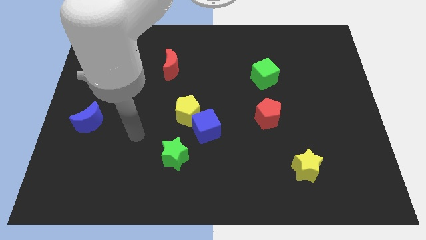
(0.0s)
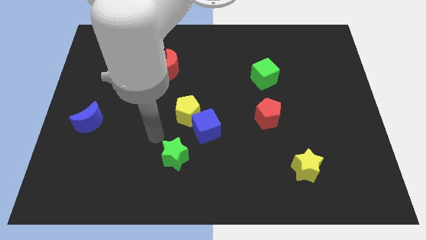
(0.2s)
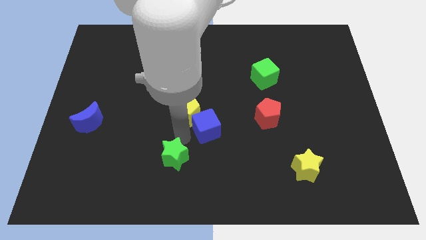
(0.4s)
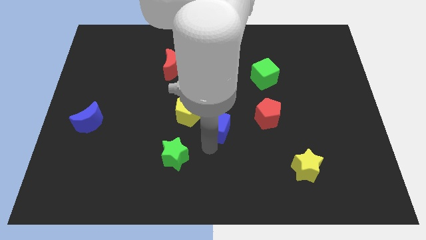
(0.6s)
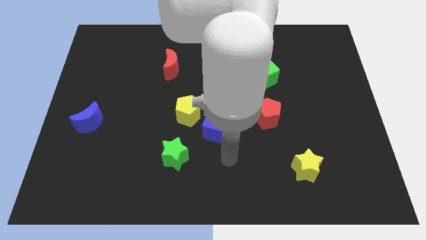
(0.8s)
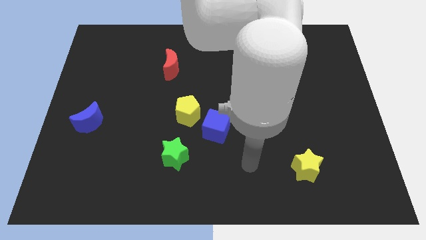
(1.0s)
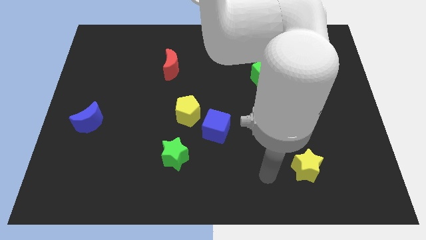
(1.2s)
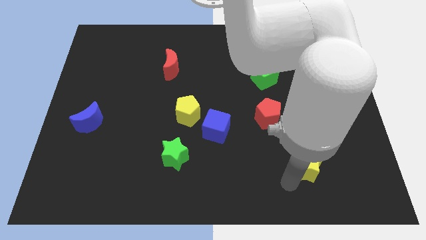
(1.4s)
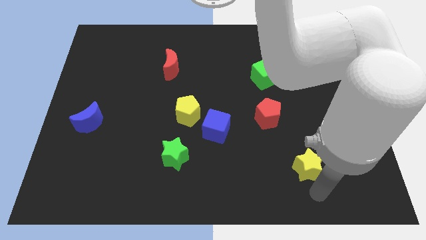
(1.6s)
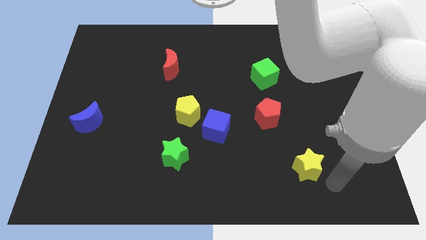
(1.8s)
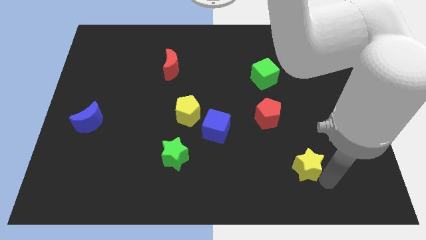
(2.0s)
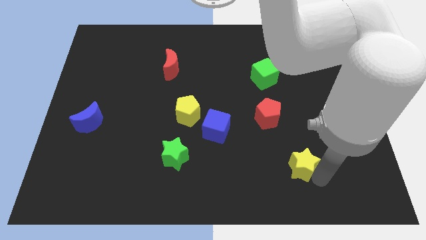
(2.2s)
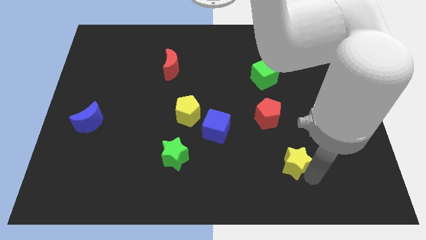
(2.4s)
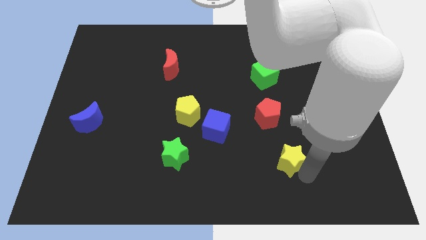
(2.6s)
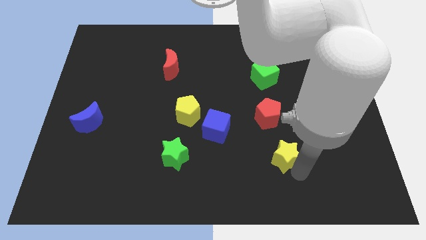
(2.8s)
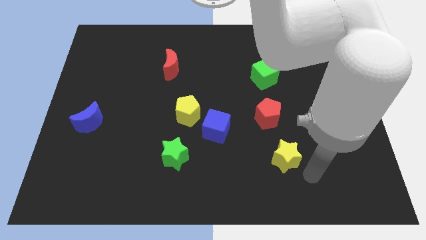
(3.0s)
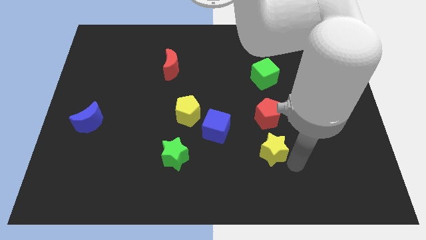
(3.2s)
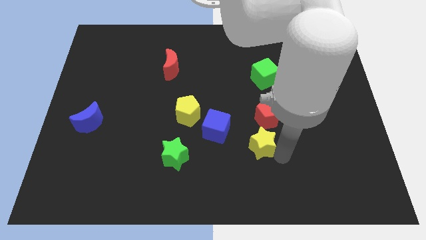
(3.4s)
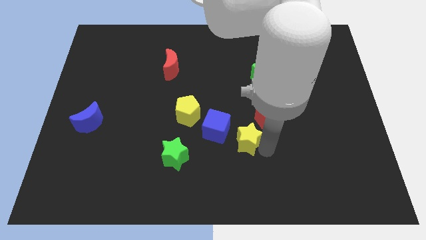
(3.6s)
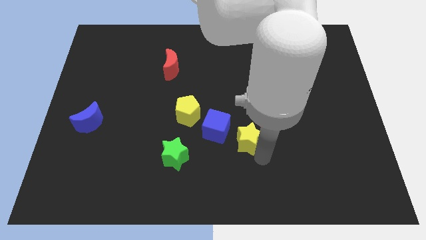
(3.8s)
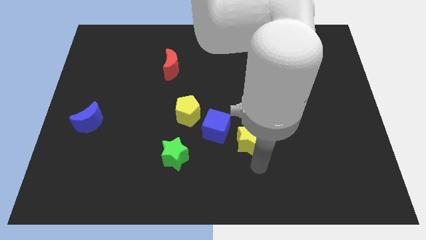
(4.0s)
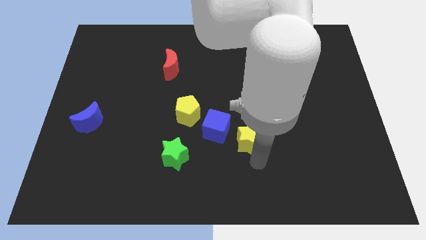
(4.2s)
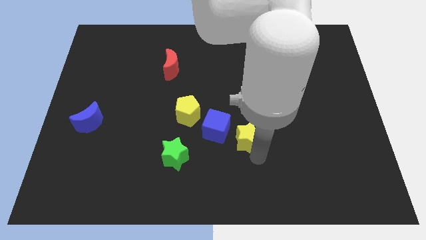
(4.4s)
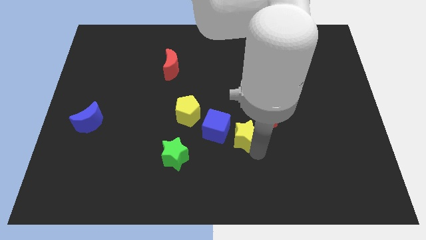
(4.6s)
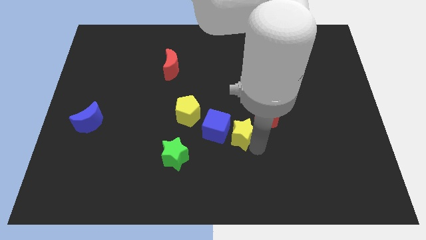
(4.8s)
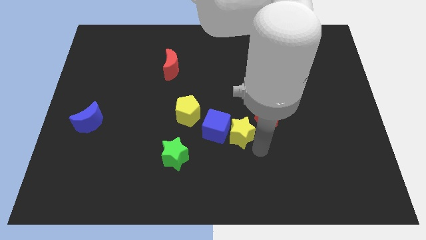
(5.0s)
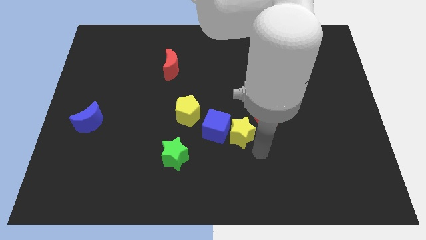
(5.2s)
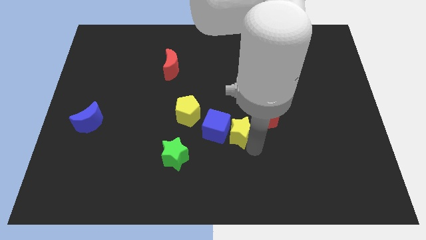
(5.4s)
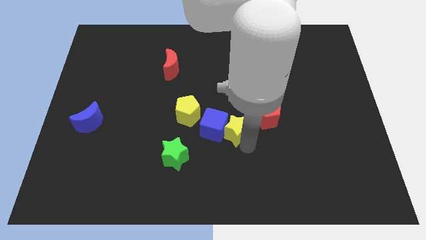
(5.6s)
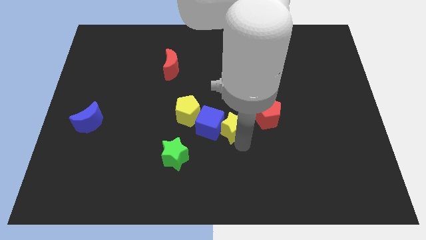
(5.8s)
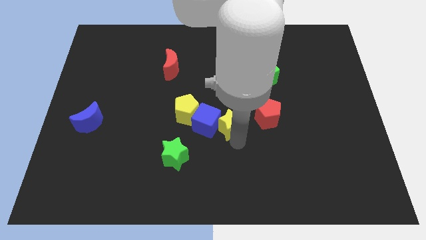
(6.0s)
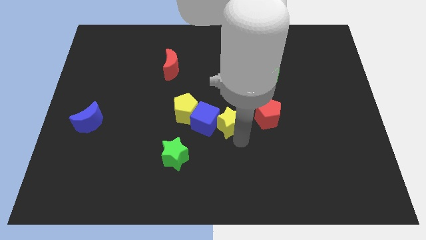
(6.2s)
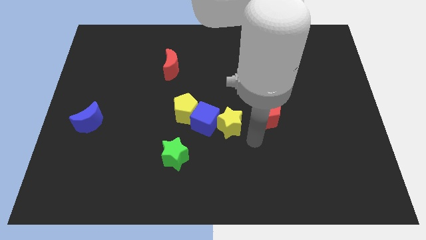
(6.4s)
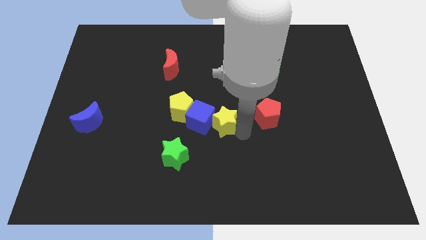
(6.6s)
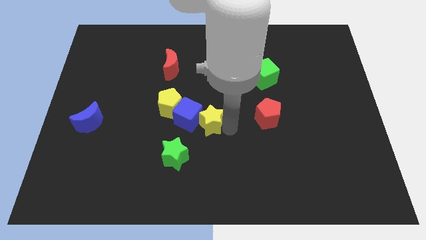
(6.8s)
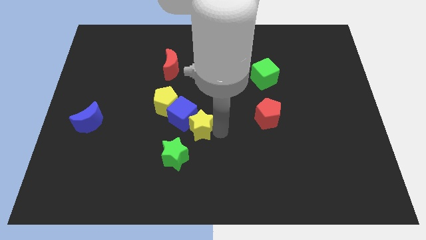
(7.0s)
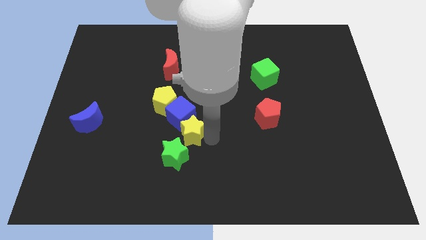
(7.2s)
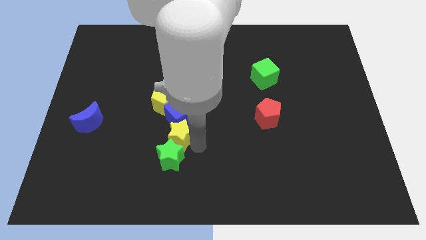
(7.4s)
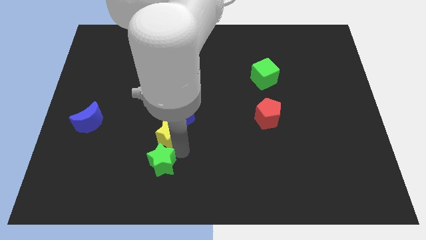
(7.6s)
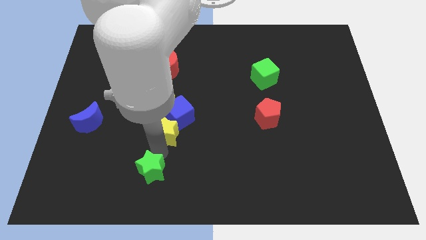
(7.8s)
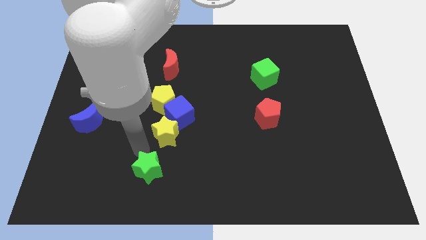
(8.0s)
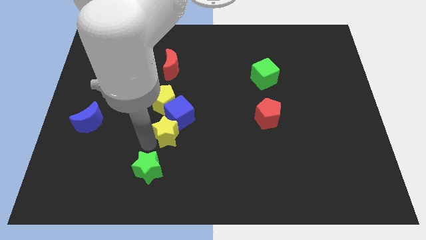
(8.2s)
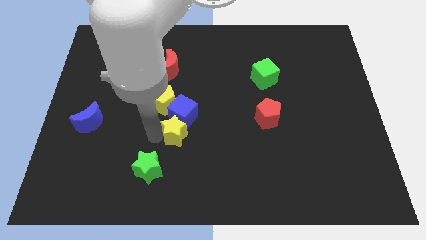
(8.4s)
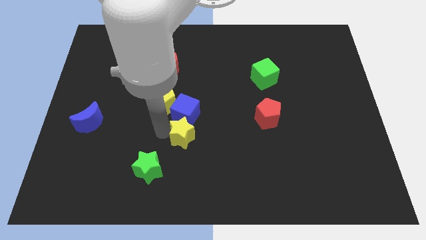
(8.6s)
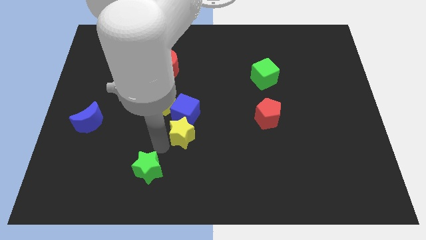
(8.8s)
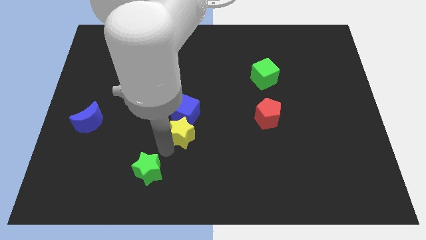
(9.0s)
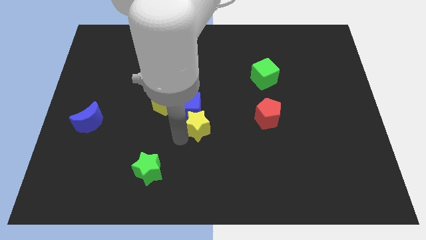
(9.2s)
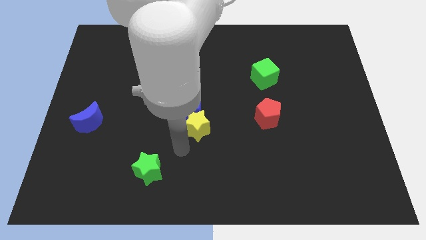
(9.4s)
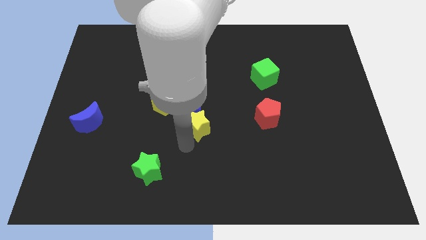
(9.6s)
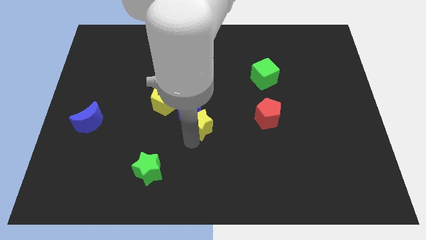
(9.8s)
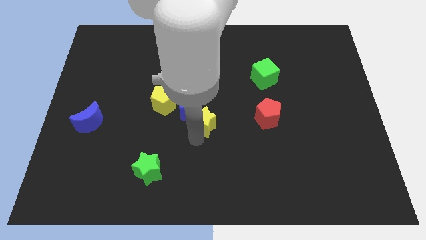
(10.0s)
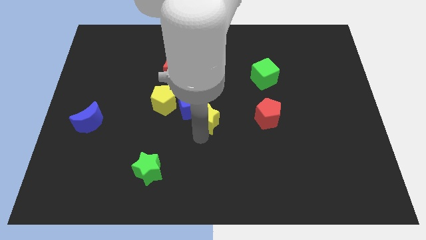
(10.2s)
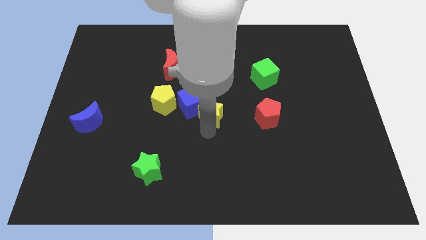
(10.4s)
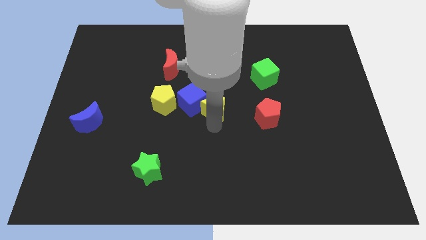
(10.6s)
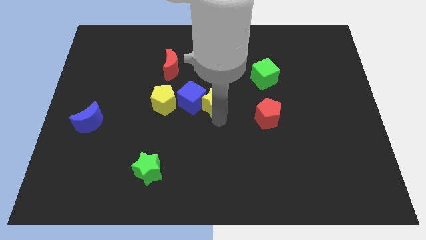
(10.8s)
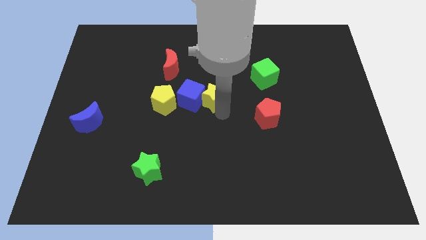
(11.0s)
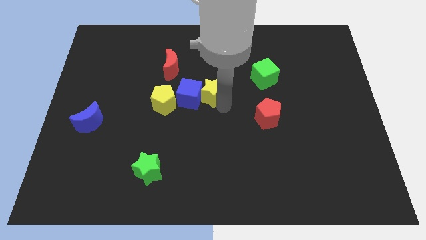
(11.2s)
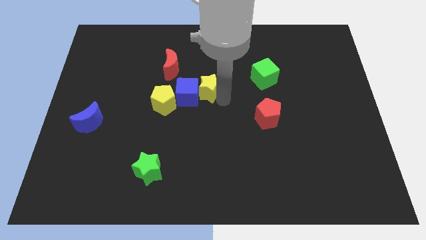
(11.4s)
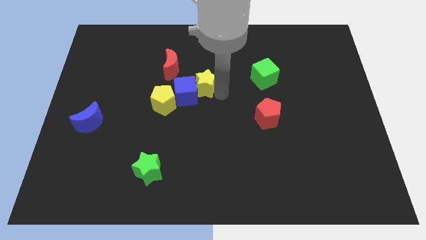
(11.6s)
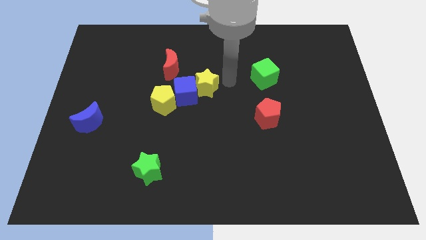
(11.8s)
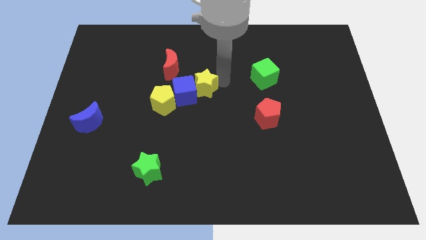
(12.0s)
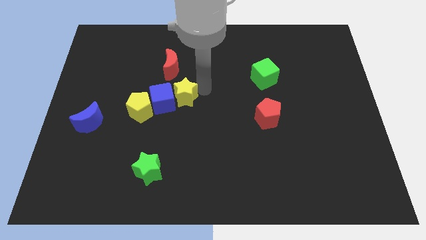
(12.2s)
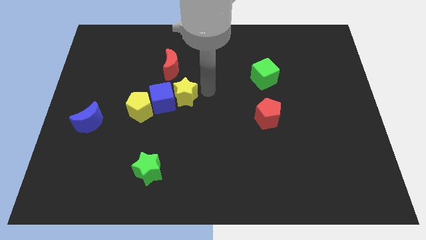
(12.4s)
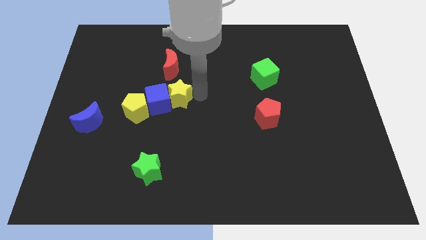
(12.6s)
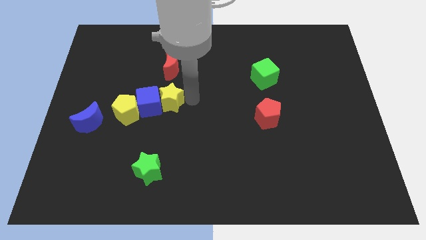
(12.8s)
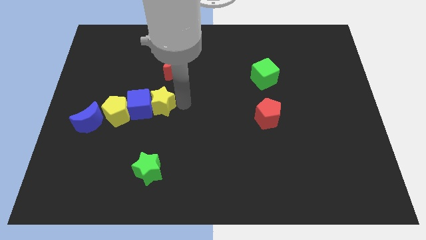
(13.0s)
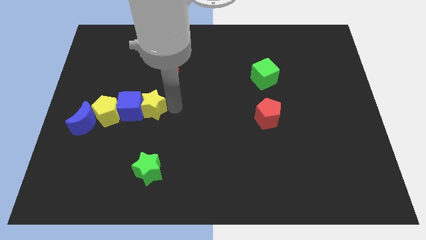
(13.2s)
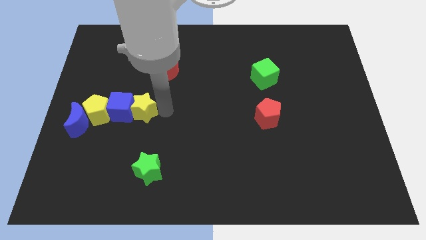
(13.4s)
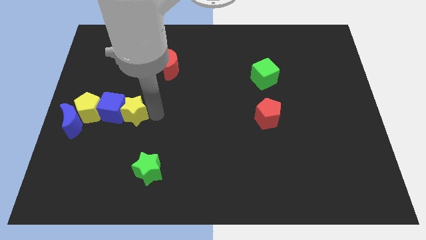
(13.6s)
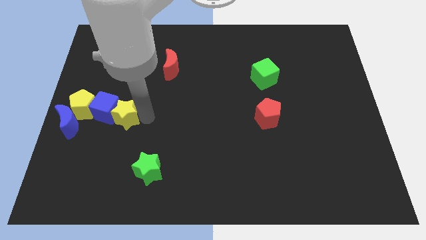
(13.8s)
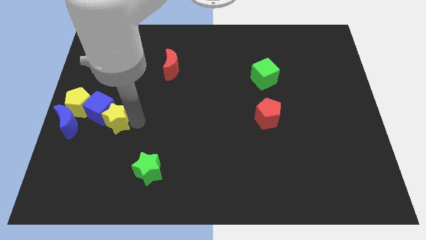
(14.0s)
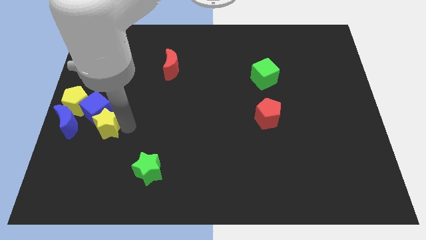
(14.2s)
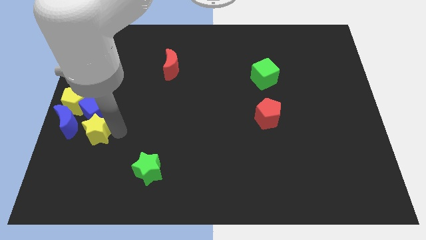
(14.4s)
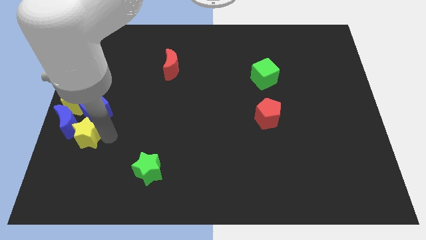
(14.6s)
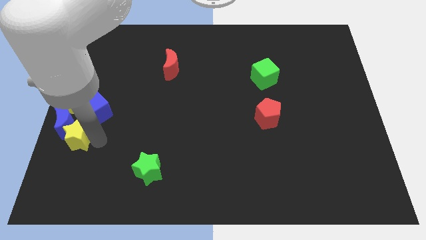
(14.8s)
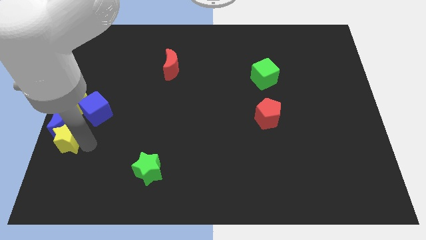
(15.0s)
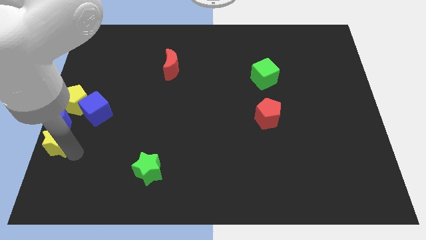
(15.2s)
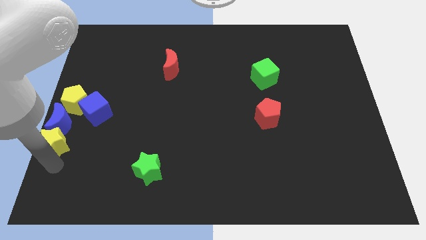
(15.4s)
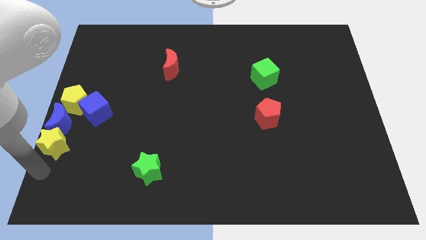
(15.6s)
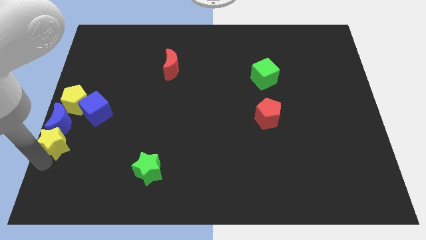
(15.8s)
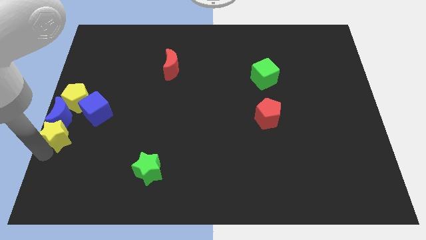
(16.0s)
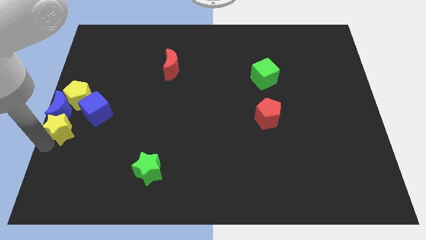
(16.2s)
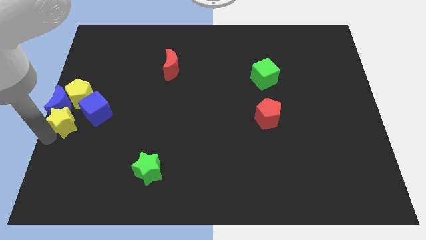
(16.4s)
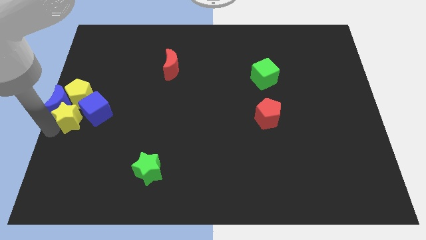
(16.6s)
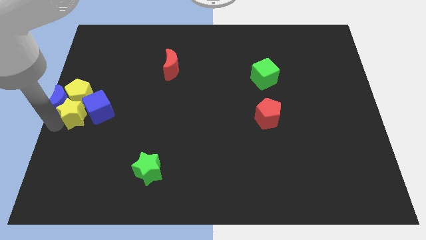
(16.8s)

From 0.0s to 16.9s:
push the yellow star towards the yellow pentagon
